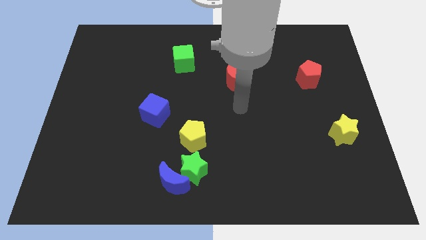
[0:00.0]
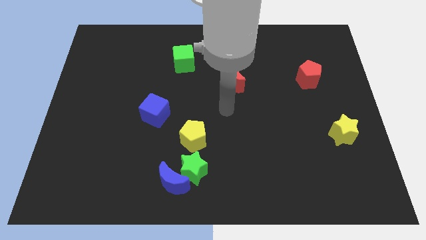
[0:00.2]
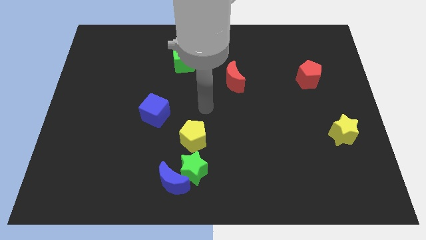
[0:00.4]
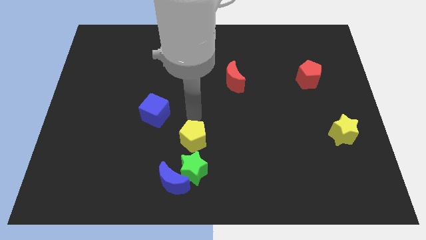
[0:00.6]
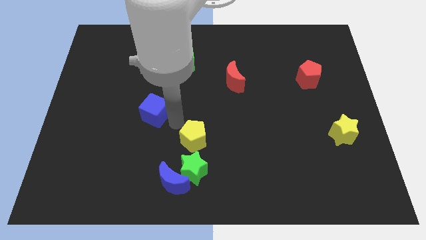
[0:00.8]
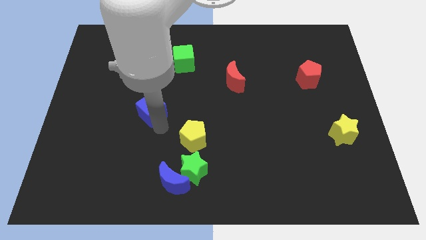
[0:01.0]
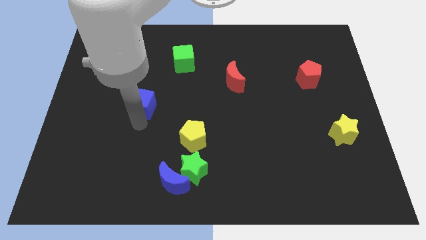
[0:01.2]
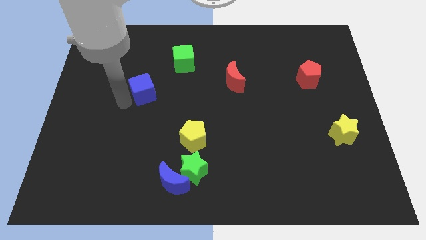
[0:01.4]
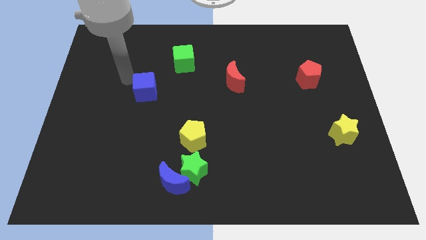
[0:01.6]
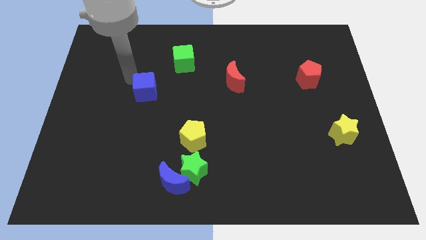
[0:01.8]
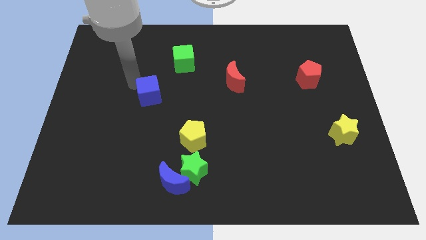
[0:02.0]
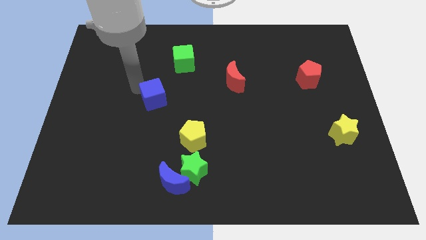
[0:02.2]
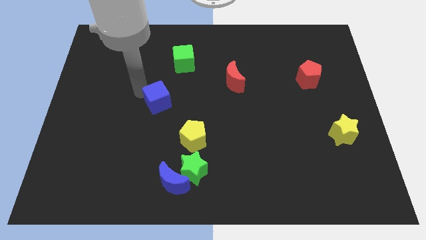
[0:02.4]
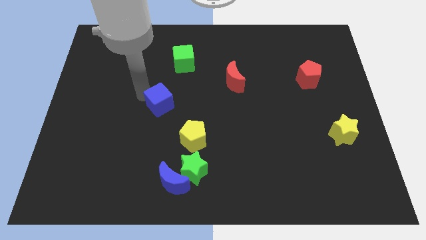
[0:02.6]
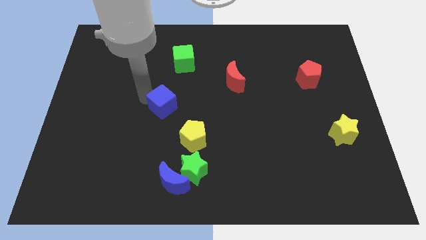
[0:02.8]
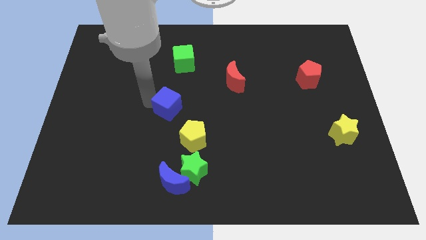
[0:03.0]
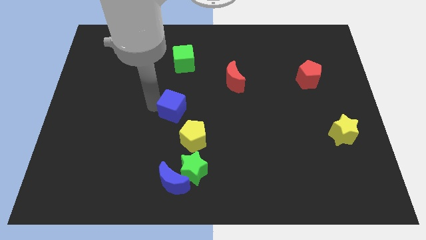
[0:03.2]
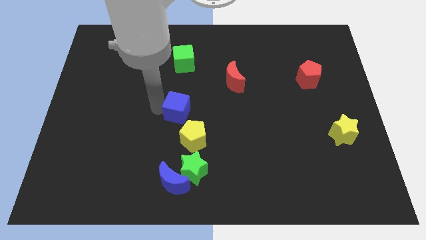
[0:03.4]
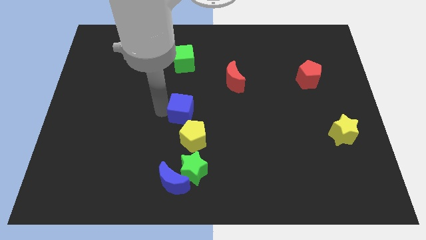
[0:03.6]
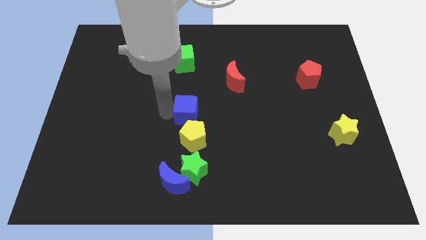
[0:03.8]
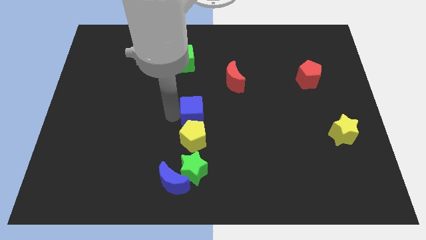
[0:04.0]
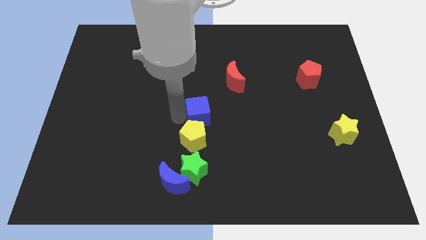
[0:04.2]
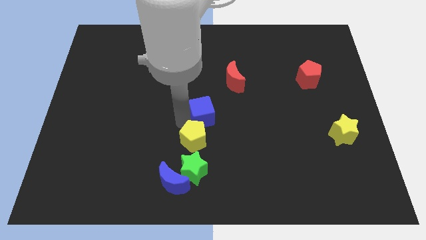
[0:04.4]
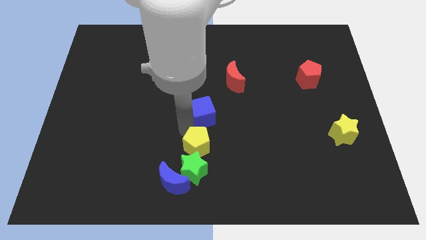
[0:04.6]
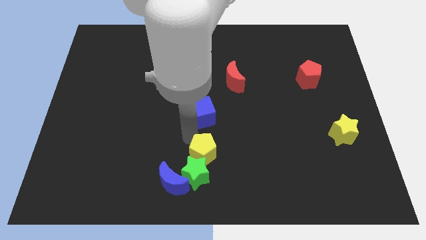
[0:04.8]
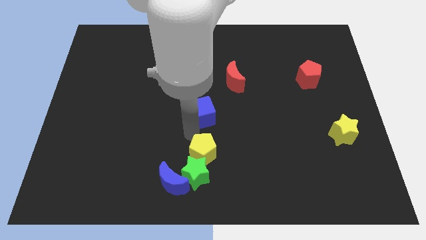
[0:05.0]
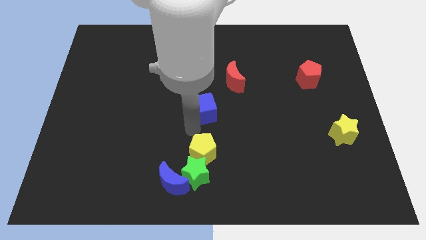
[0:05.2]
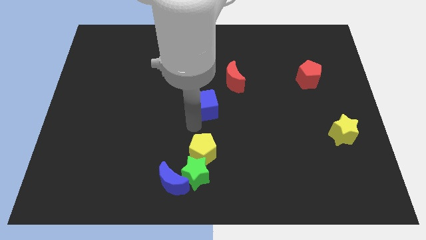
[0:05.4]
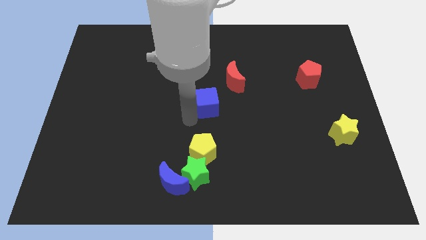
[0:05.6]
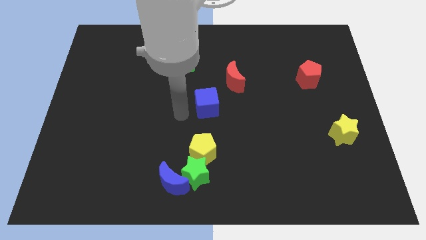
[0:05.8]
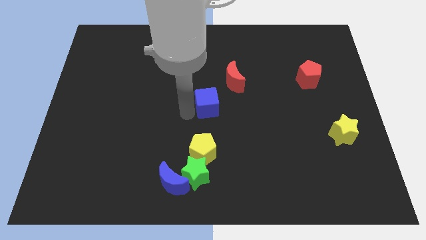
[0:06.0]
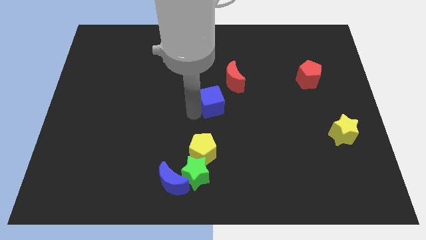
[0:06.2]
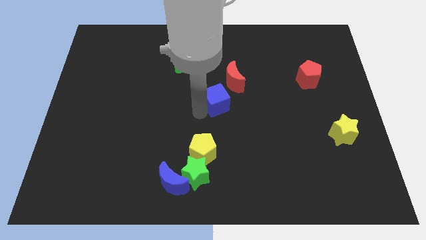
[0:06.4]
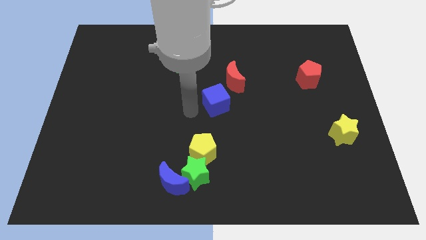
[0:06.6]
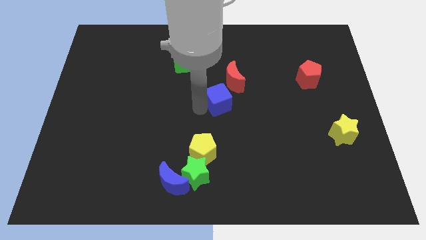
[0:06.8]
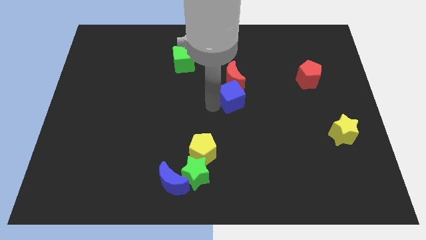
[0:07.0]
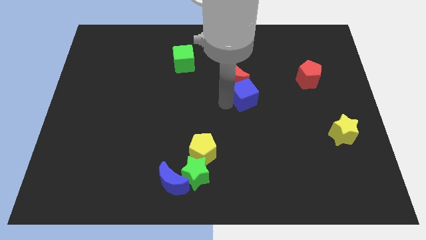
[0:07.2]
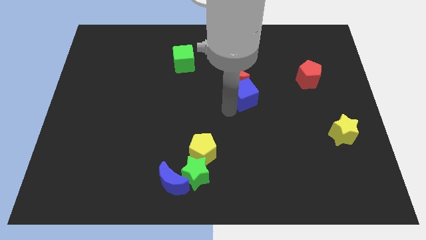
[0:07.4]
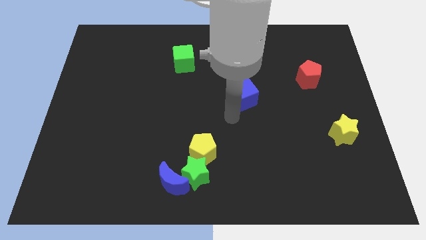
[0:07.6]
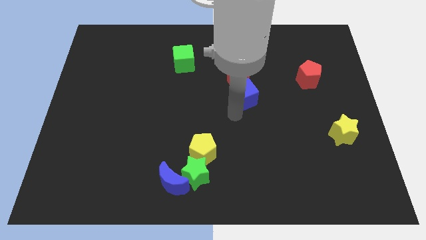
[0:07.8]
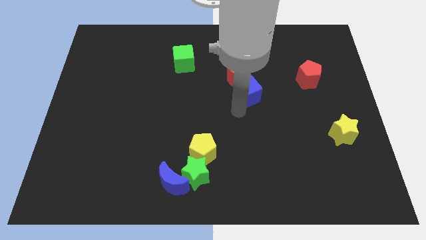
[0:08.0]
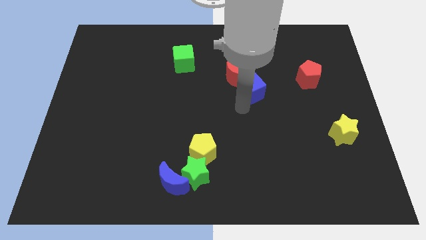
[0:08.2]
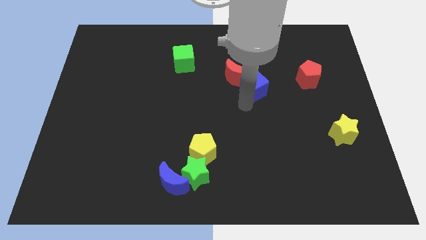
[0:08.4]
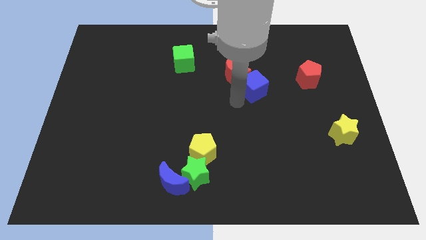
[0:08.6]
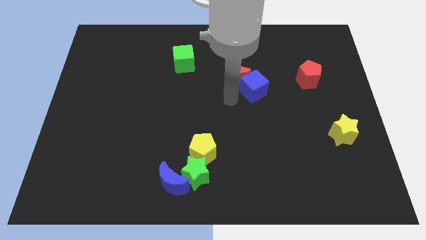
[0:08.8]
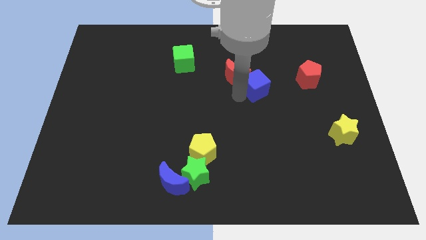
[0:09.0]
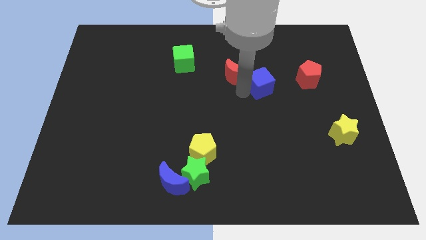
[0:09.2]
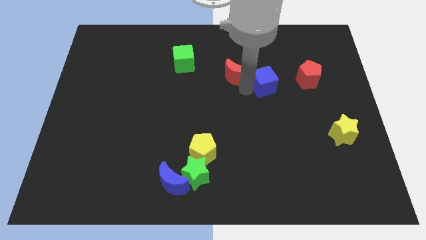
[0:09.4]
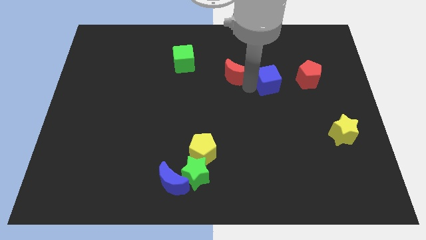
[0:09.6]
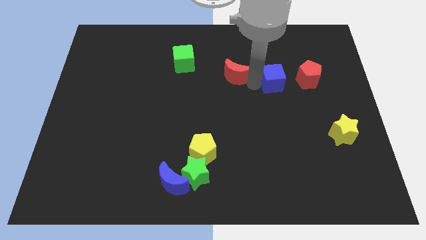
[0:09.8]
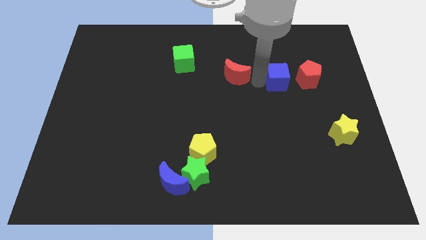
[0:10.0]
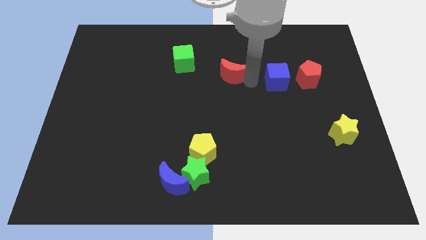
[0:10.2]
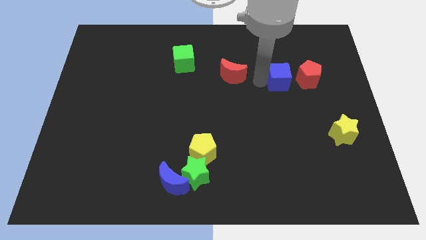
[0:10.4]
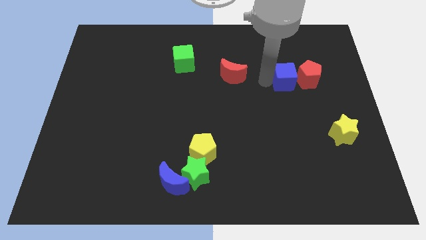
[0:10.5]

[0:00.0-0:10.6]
move the blue cube next to the red pentagon
